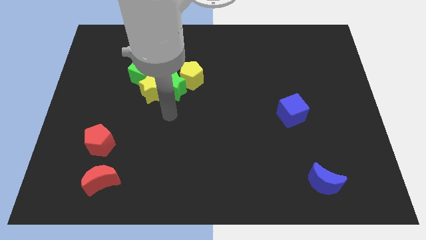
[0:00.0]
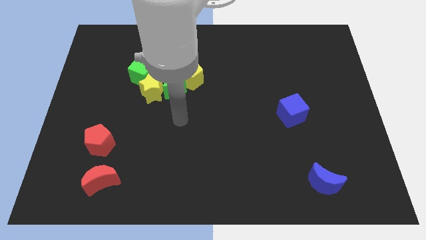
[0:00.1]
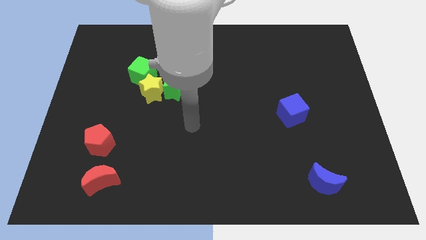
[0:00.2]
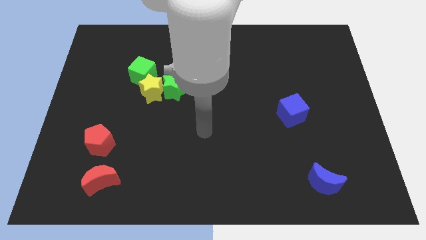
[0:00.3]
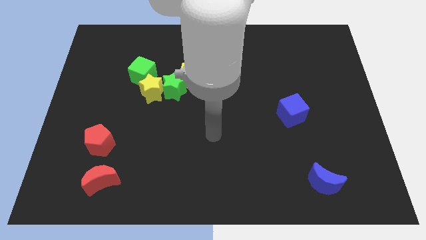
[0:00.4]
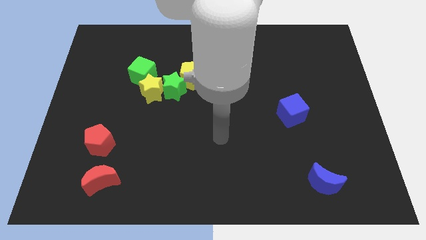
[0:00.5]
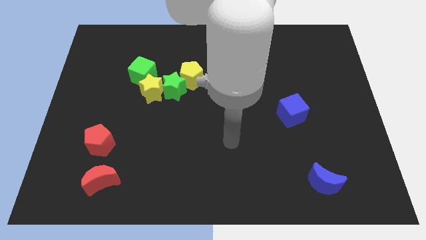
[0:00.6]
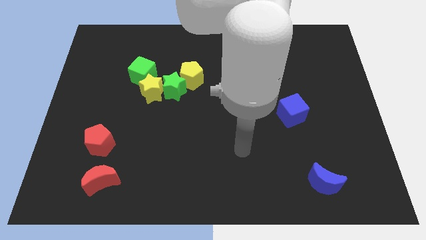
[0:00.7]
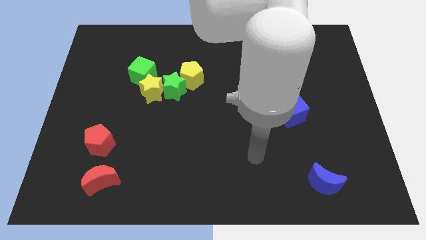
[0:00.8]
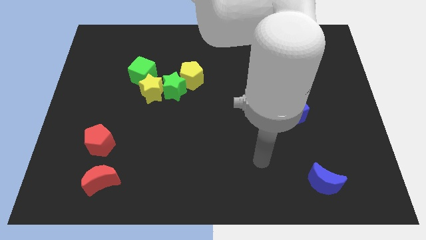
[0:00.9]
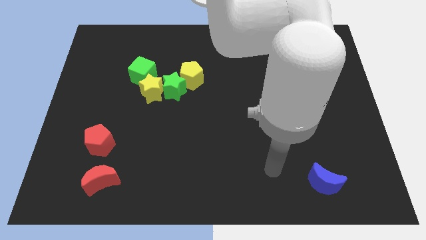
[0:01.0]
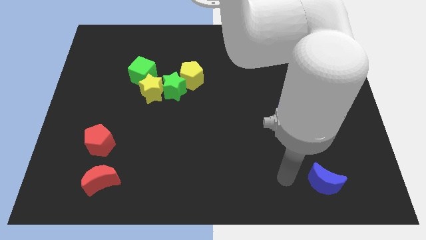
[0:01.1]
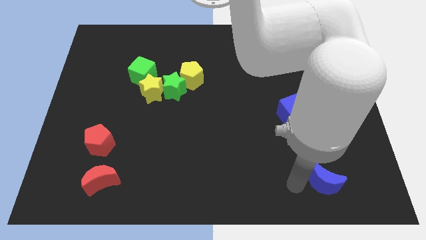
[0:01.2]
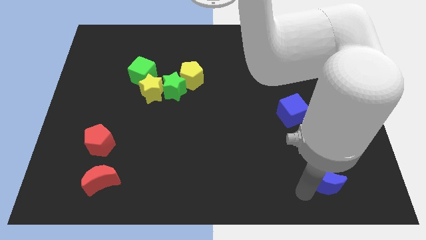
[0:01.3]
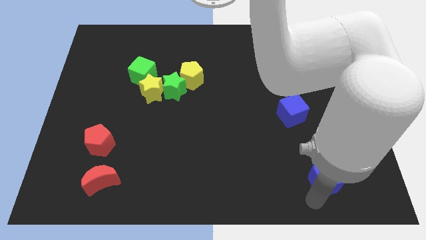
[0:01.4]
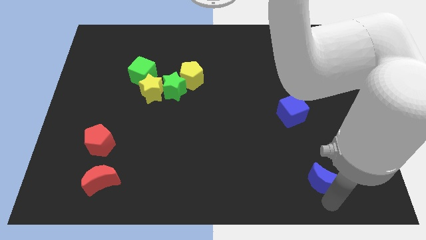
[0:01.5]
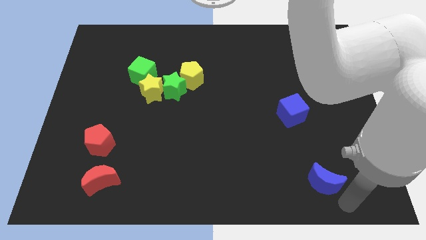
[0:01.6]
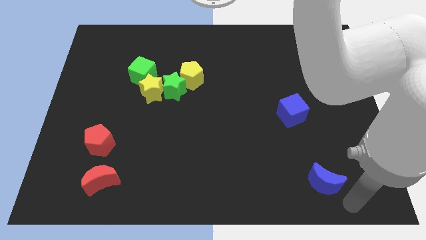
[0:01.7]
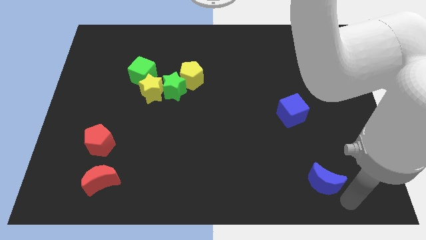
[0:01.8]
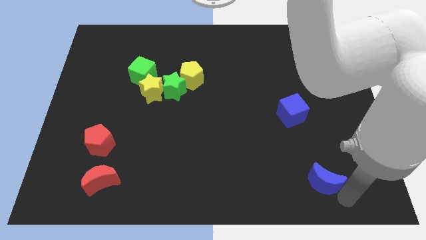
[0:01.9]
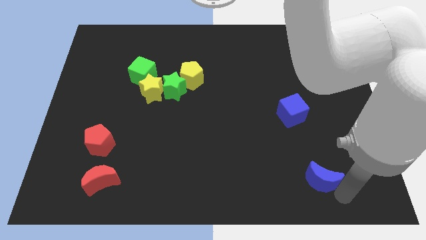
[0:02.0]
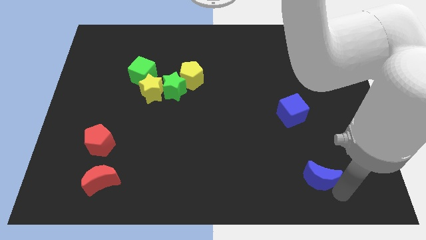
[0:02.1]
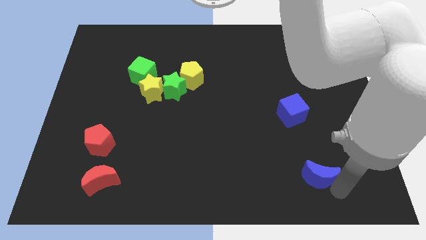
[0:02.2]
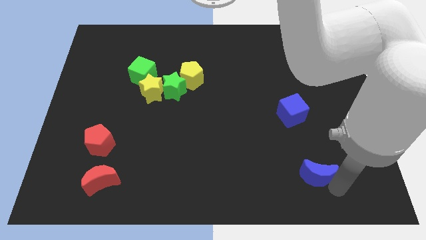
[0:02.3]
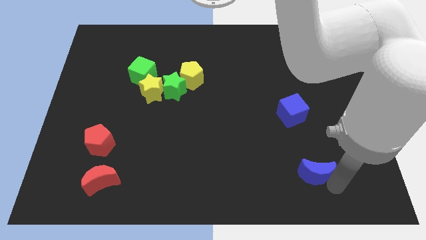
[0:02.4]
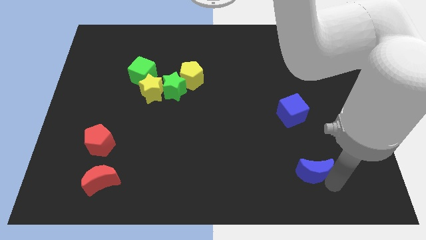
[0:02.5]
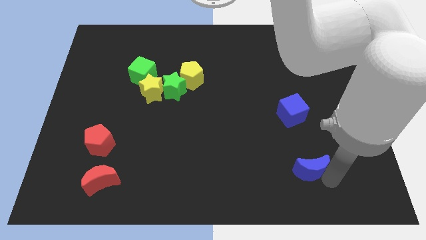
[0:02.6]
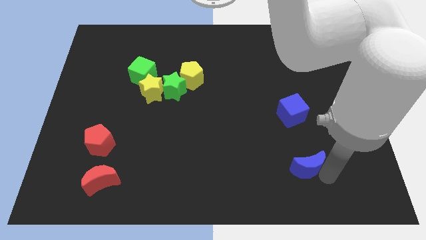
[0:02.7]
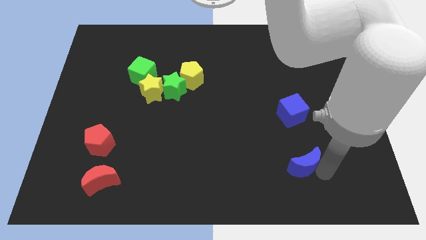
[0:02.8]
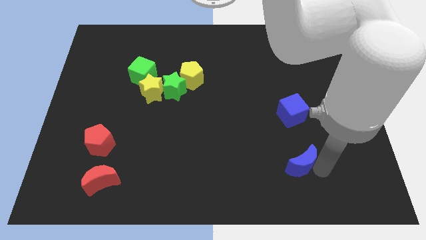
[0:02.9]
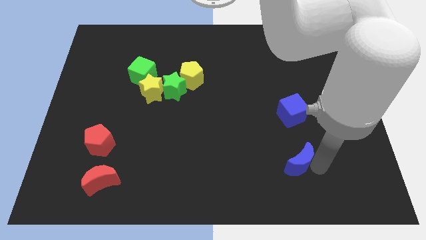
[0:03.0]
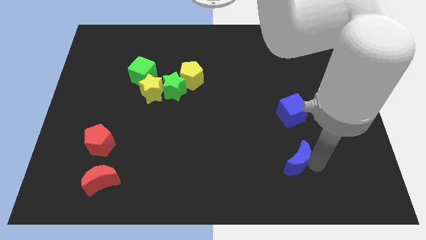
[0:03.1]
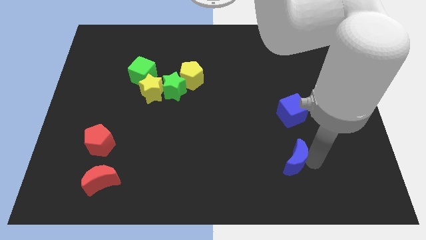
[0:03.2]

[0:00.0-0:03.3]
slide the blue moon up and then to the left somewhat

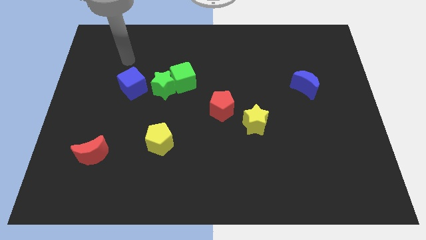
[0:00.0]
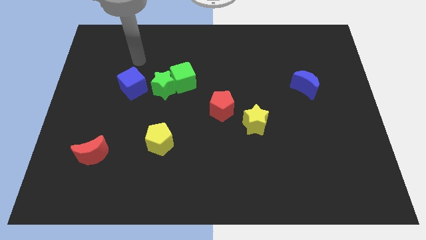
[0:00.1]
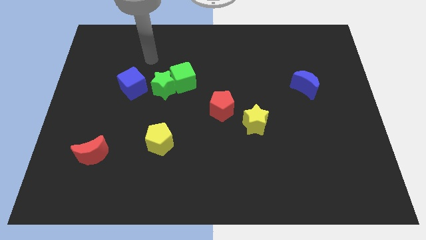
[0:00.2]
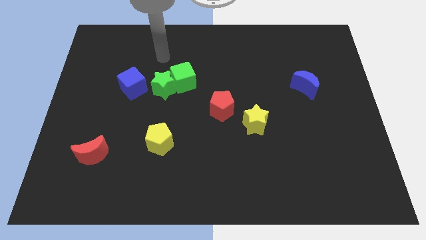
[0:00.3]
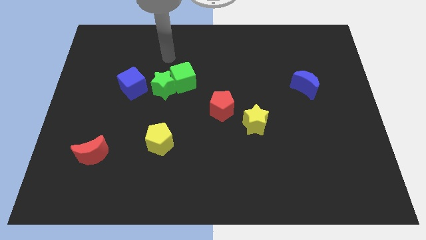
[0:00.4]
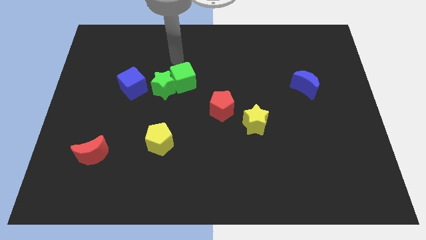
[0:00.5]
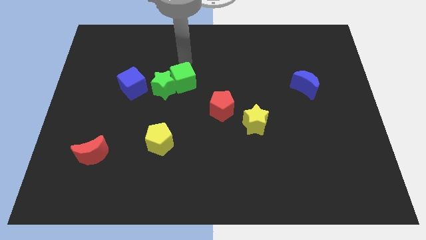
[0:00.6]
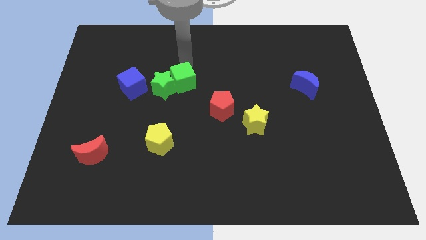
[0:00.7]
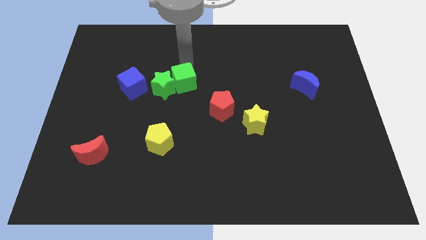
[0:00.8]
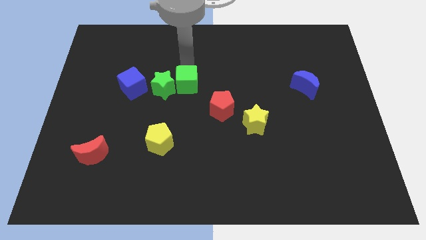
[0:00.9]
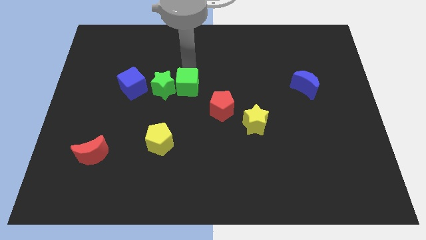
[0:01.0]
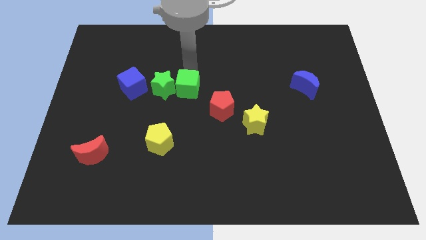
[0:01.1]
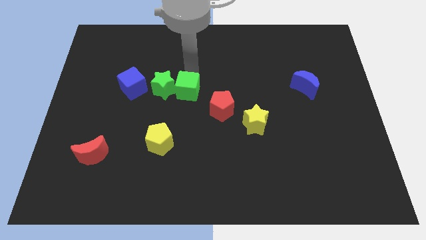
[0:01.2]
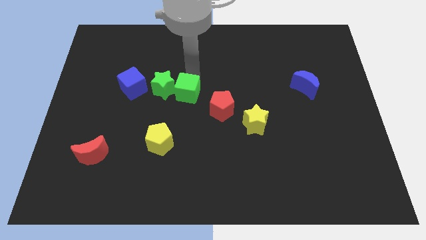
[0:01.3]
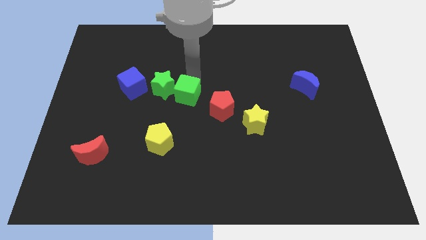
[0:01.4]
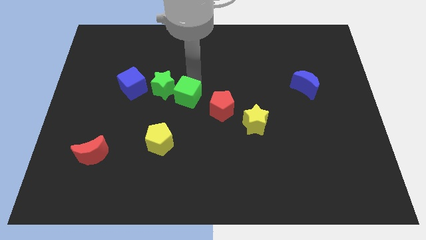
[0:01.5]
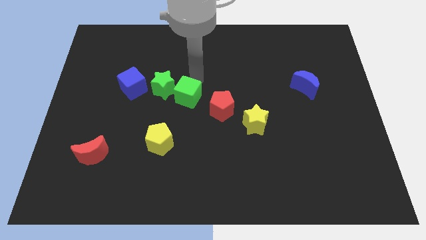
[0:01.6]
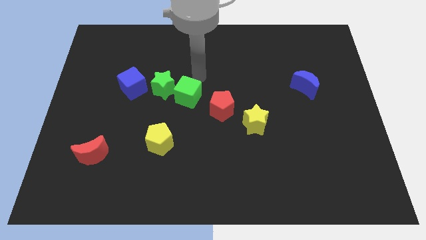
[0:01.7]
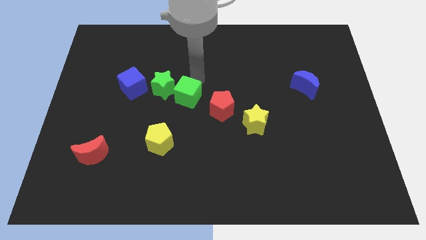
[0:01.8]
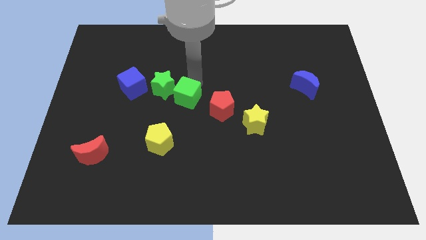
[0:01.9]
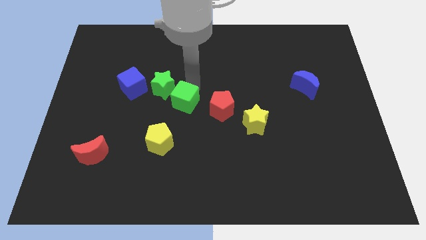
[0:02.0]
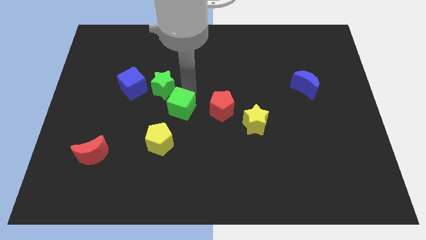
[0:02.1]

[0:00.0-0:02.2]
slide the green cube down somewhat

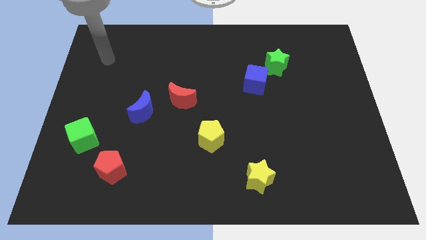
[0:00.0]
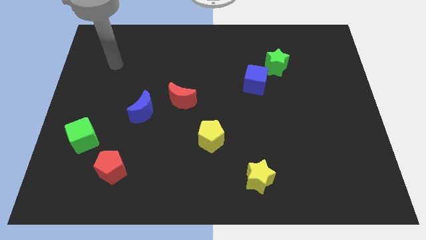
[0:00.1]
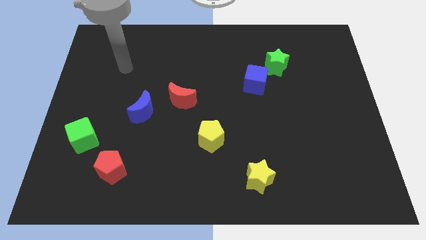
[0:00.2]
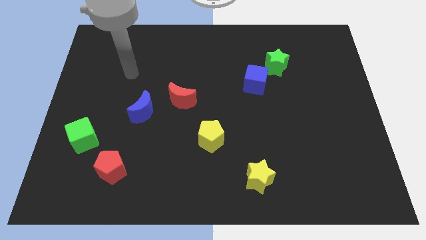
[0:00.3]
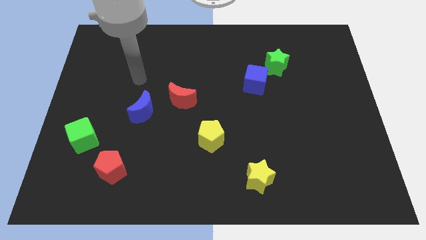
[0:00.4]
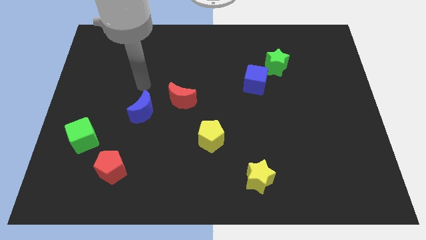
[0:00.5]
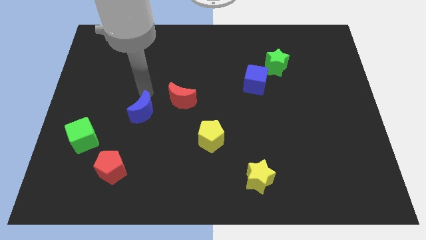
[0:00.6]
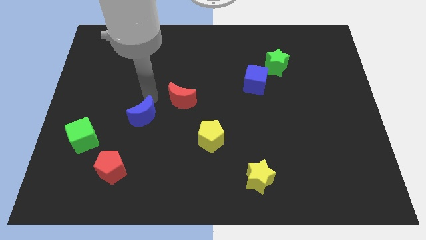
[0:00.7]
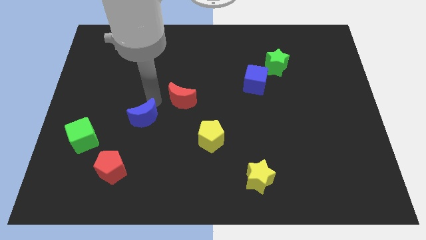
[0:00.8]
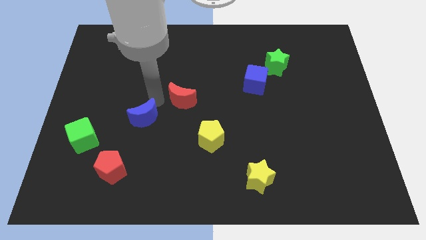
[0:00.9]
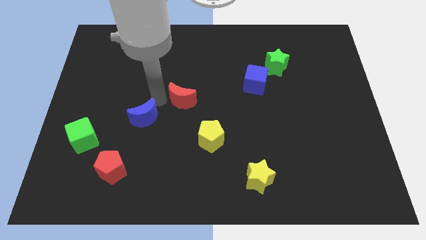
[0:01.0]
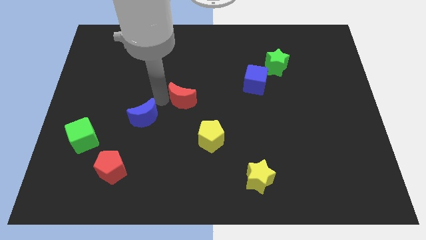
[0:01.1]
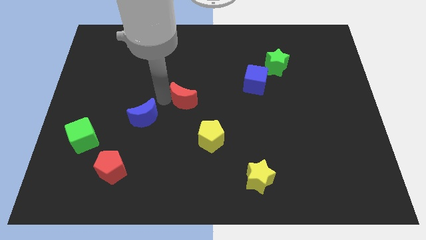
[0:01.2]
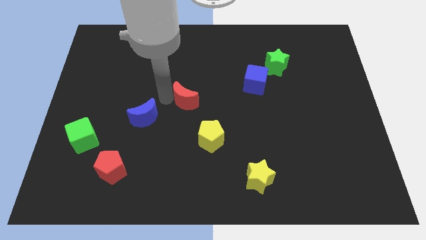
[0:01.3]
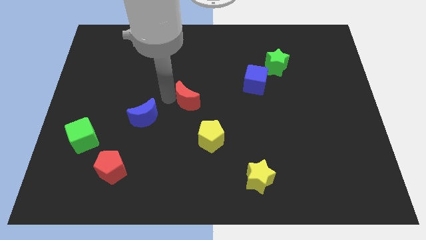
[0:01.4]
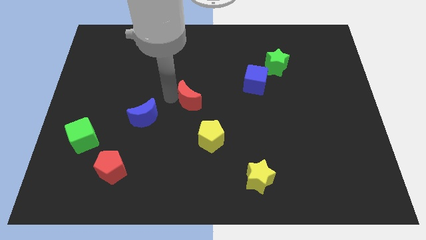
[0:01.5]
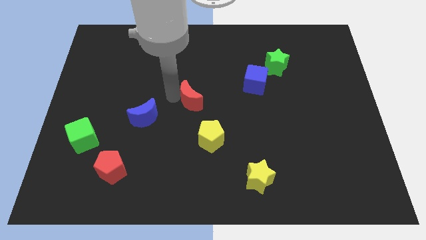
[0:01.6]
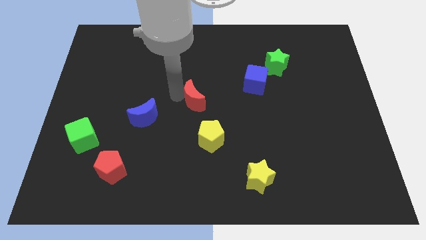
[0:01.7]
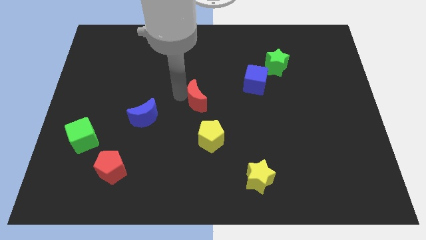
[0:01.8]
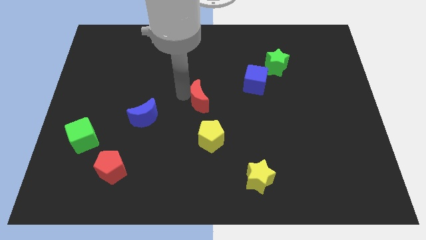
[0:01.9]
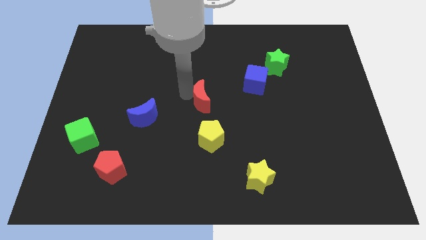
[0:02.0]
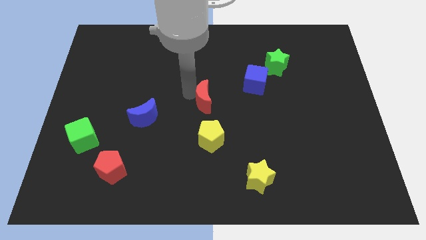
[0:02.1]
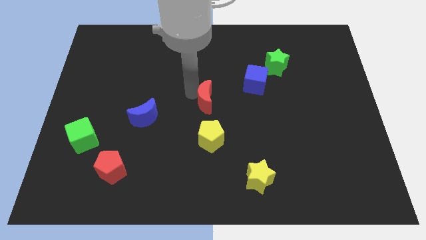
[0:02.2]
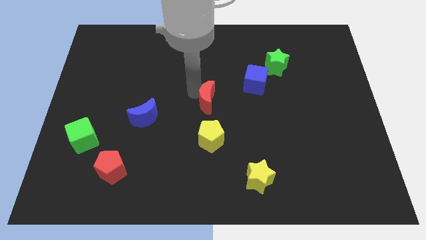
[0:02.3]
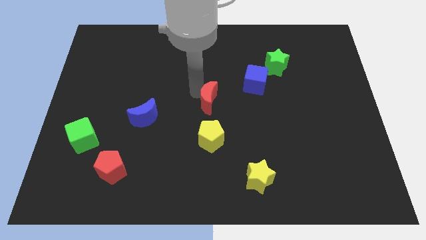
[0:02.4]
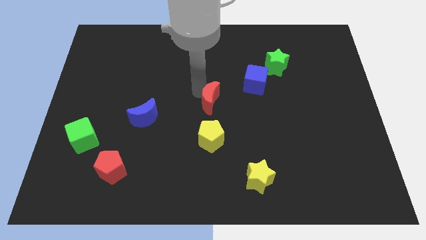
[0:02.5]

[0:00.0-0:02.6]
slightly slide the red moon to the right

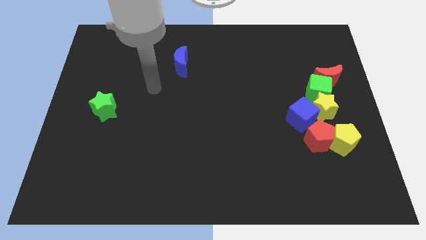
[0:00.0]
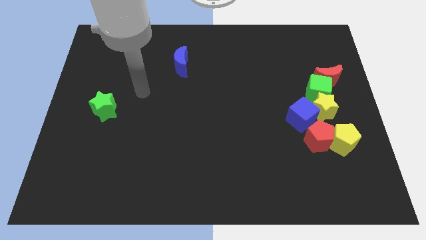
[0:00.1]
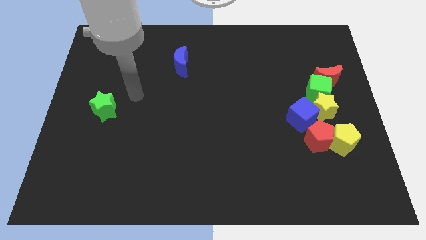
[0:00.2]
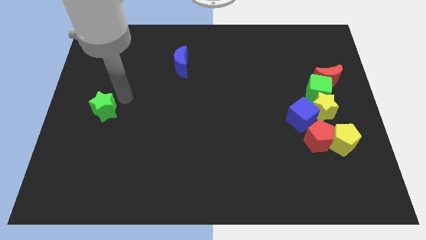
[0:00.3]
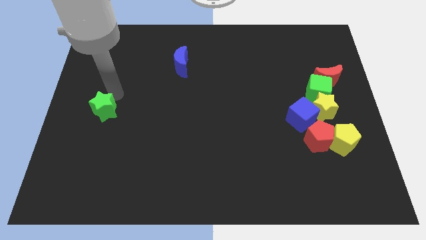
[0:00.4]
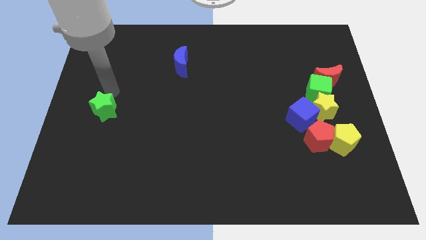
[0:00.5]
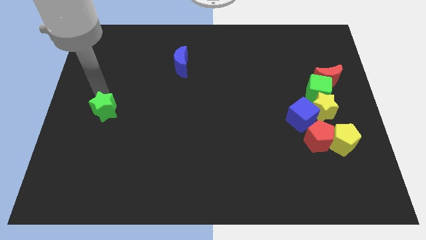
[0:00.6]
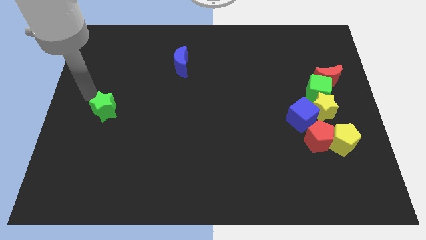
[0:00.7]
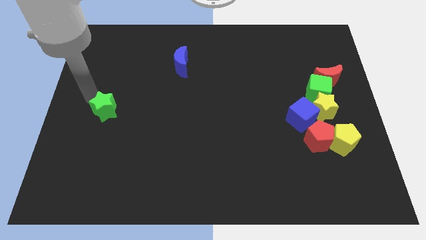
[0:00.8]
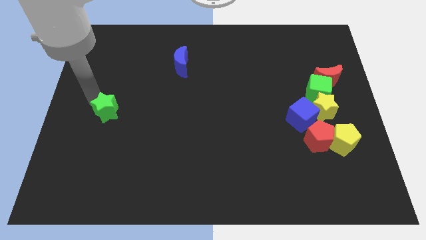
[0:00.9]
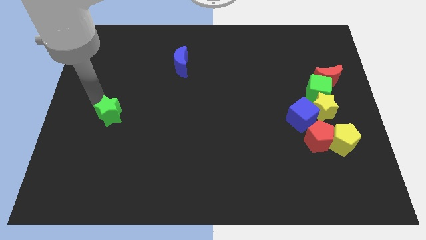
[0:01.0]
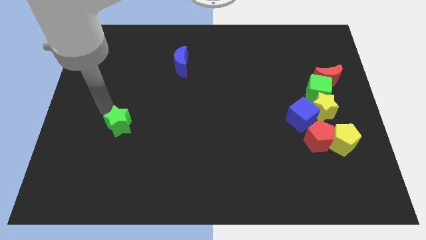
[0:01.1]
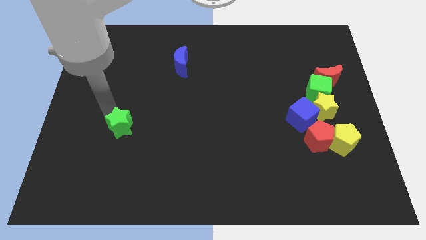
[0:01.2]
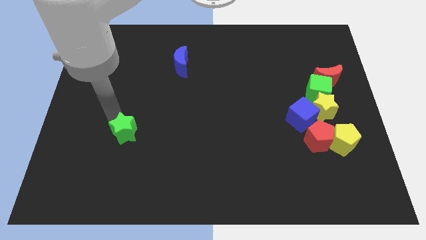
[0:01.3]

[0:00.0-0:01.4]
push the green star downwards and then to the right a little bit
